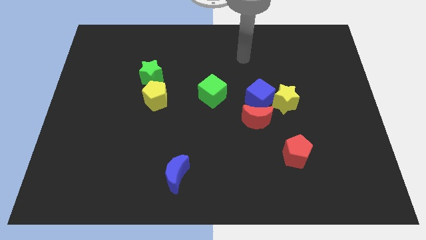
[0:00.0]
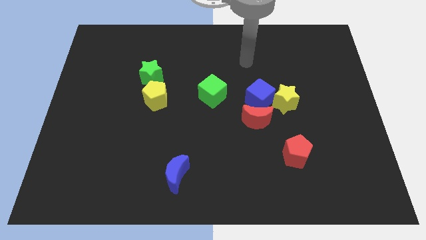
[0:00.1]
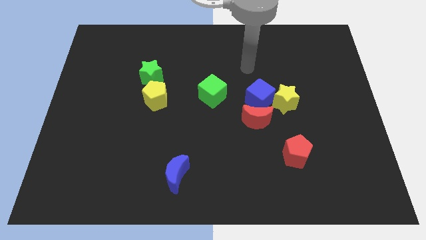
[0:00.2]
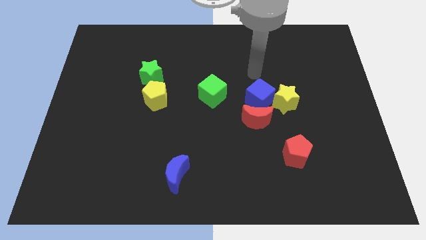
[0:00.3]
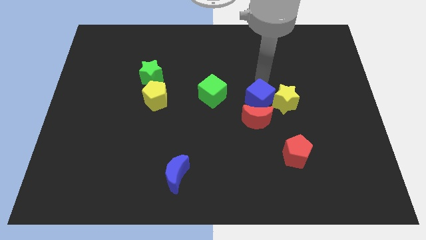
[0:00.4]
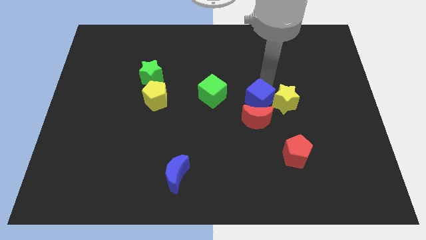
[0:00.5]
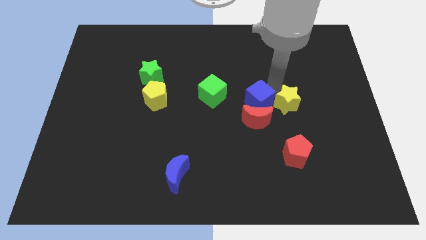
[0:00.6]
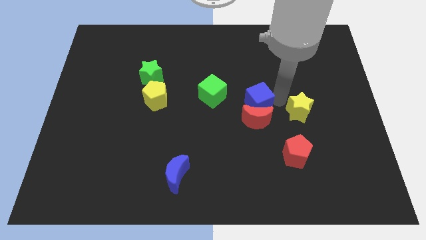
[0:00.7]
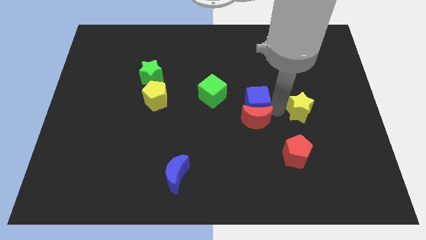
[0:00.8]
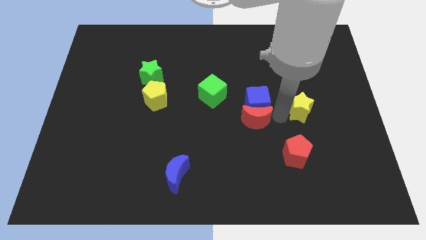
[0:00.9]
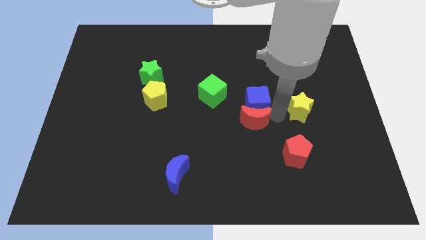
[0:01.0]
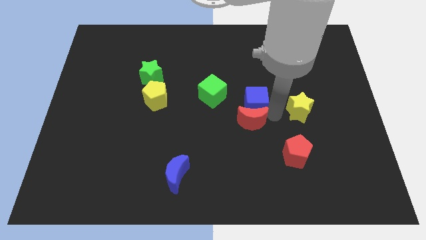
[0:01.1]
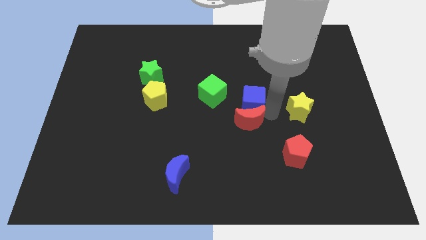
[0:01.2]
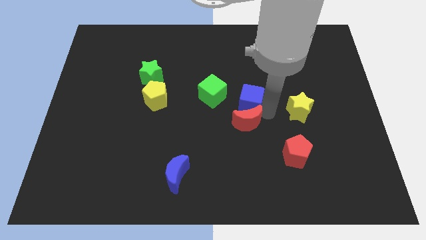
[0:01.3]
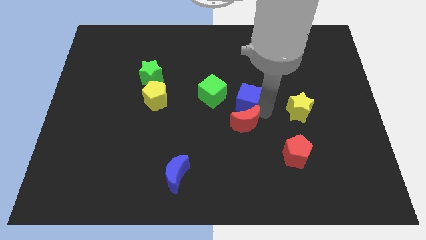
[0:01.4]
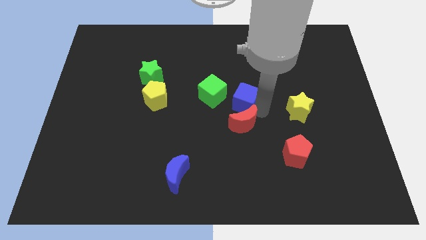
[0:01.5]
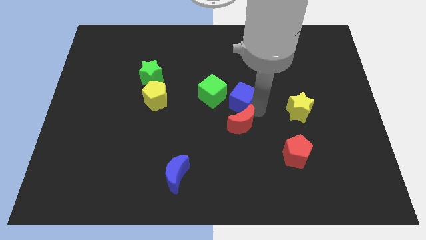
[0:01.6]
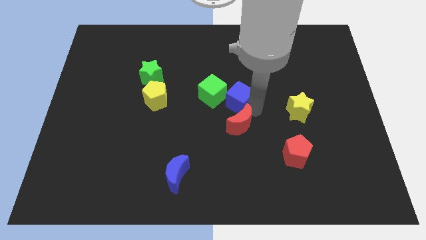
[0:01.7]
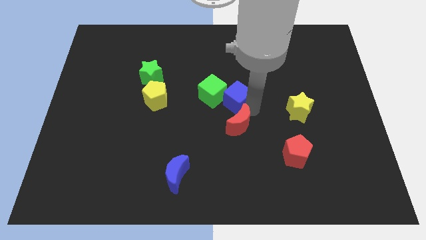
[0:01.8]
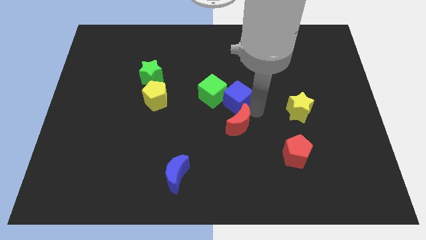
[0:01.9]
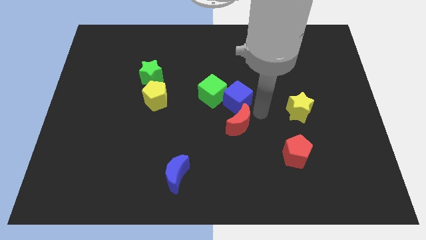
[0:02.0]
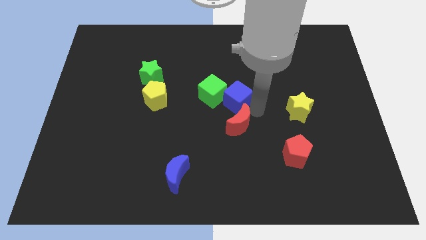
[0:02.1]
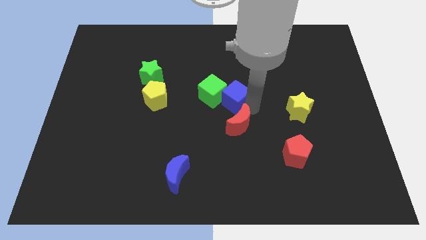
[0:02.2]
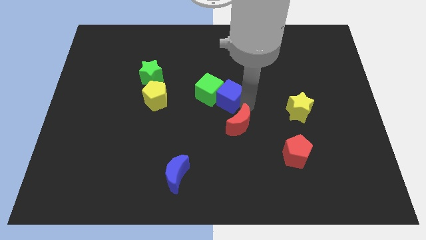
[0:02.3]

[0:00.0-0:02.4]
pull the blue cube apart from the yellow star and red moon

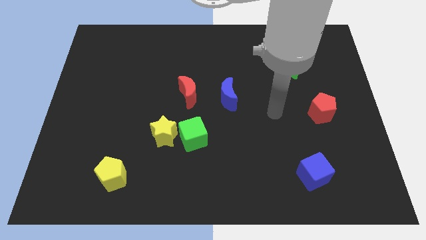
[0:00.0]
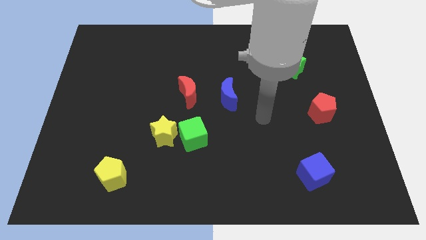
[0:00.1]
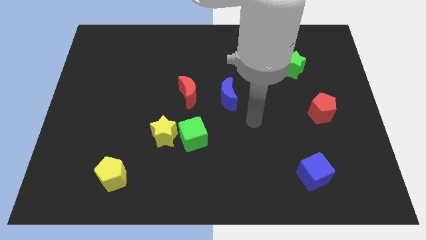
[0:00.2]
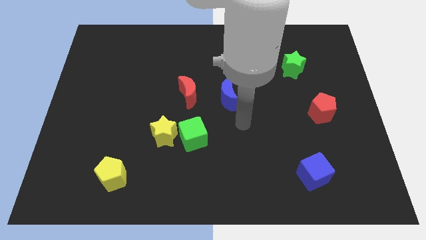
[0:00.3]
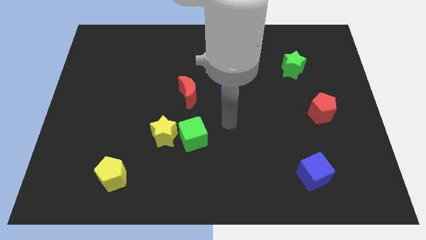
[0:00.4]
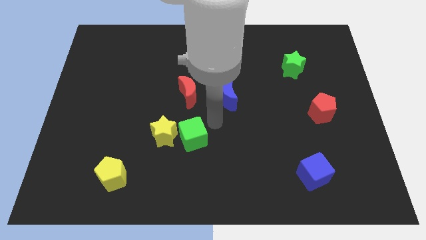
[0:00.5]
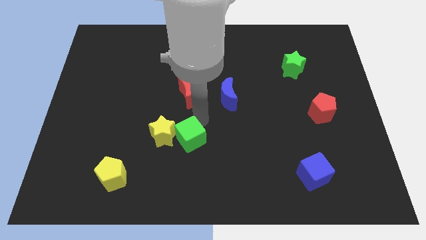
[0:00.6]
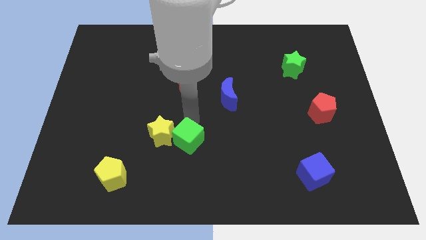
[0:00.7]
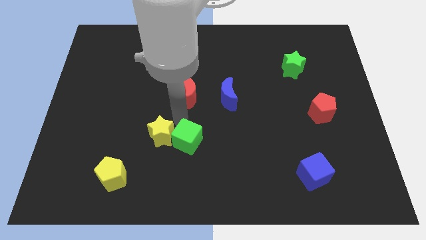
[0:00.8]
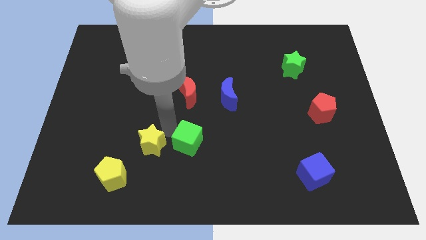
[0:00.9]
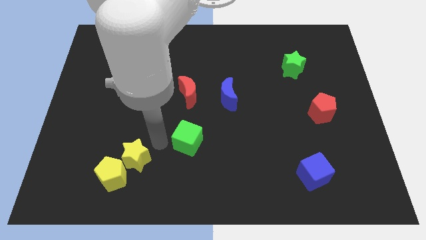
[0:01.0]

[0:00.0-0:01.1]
move the green cube away from the yellow star

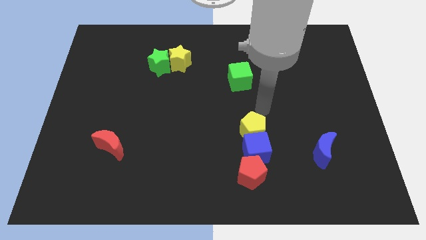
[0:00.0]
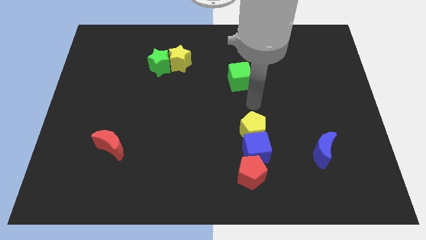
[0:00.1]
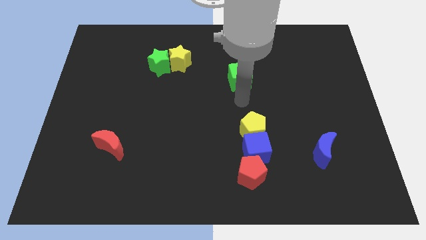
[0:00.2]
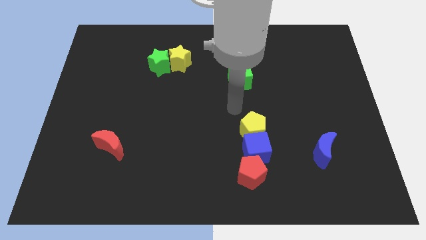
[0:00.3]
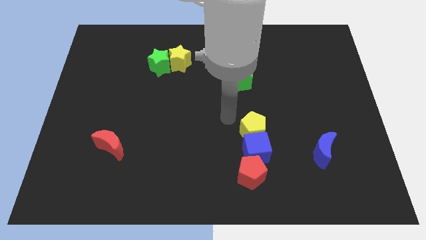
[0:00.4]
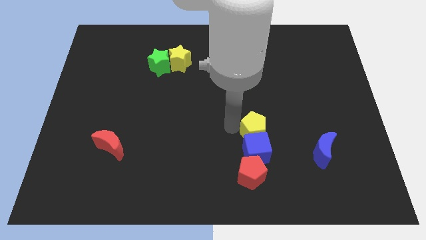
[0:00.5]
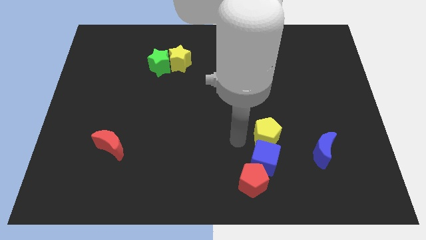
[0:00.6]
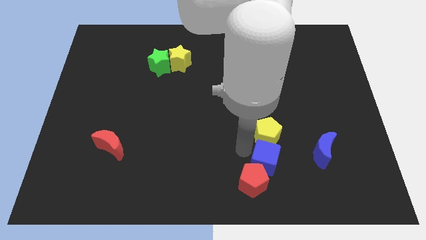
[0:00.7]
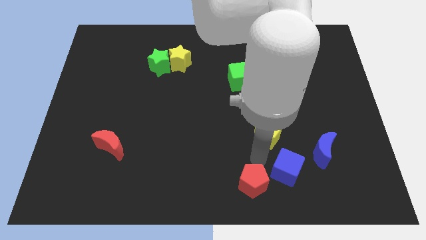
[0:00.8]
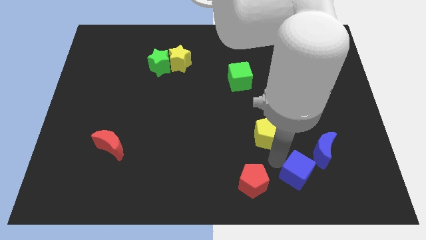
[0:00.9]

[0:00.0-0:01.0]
pull the yellow pentagon apart from the blue cube

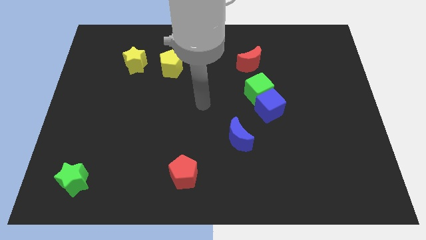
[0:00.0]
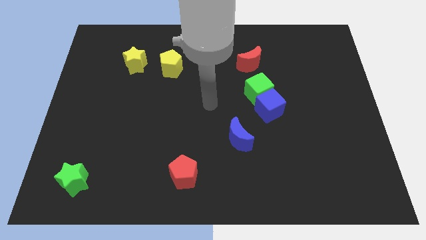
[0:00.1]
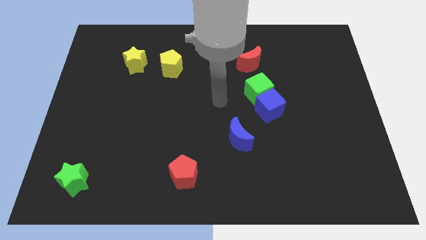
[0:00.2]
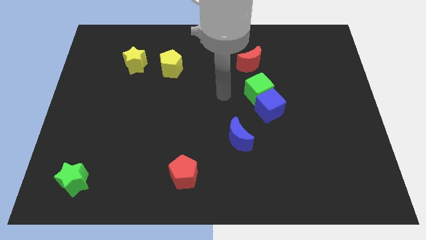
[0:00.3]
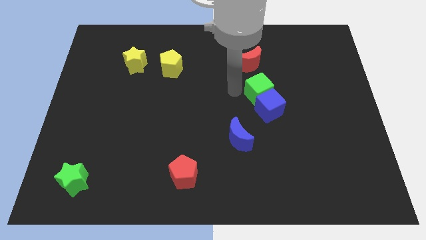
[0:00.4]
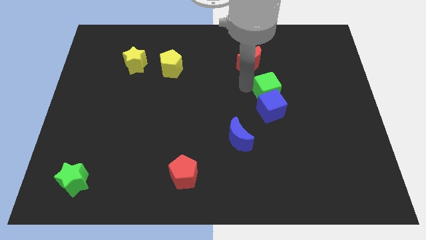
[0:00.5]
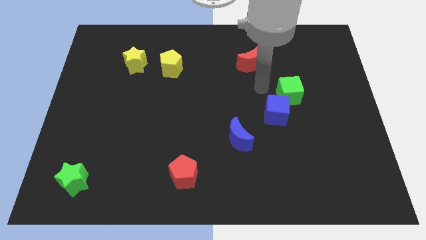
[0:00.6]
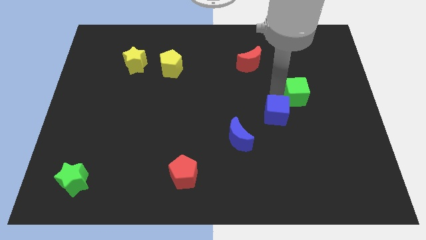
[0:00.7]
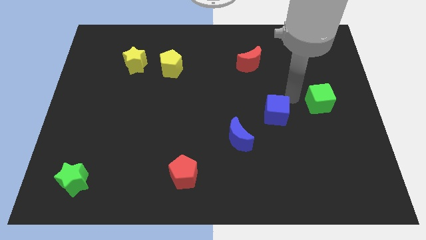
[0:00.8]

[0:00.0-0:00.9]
pull the blue cube apart from the green cube

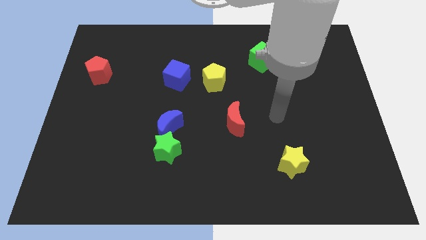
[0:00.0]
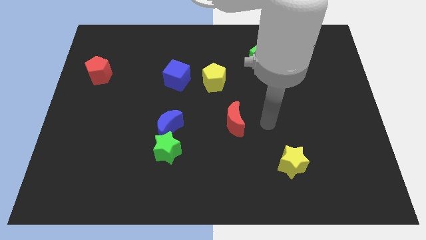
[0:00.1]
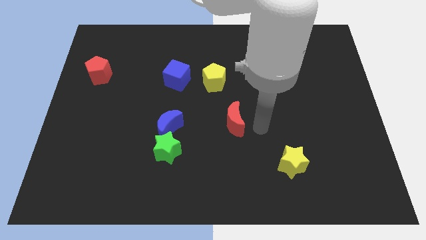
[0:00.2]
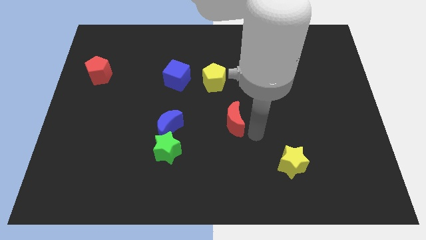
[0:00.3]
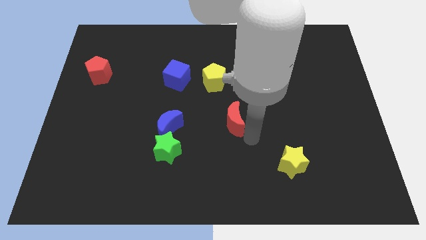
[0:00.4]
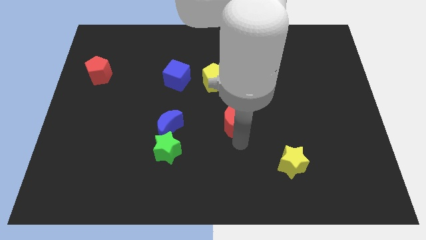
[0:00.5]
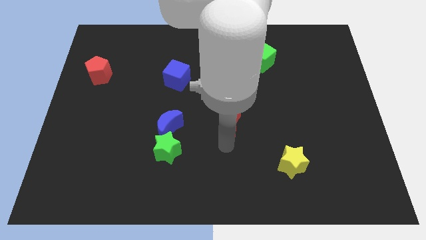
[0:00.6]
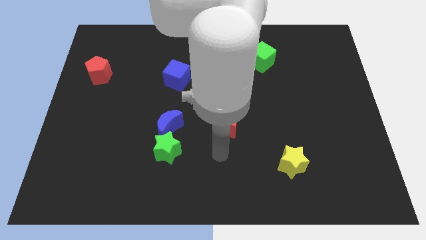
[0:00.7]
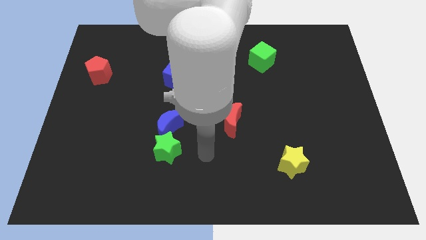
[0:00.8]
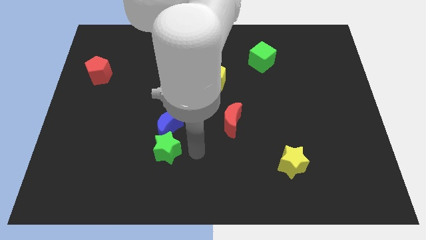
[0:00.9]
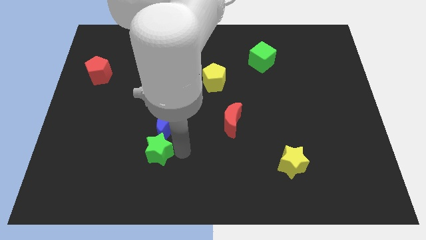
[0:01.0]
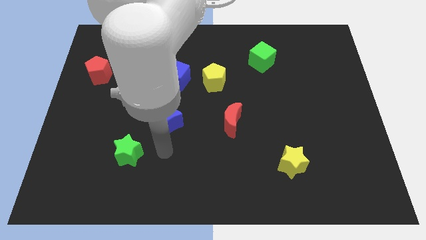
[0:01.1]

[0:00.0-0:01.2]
separate the blue moon from the green star

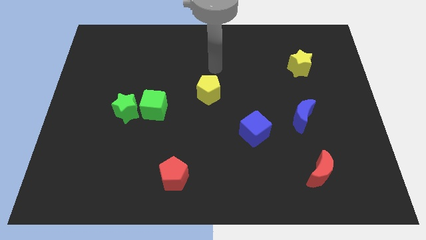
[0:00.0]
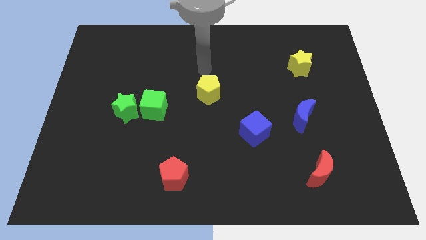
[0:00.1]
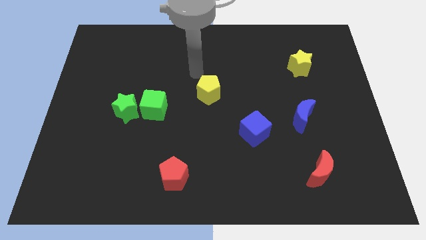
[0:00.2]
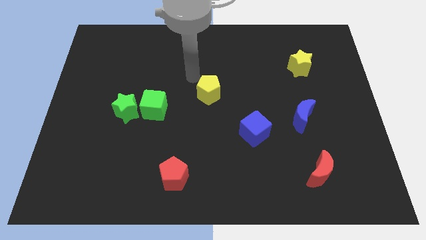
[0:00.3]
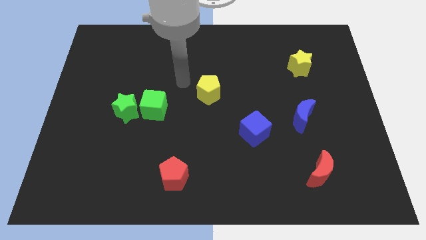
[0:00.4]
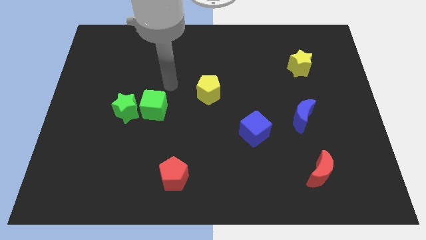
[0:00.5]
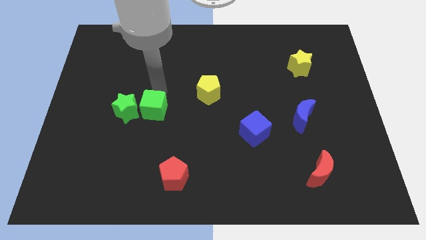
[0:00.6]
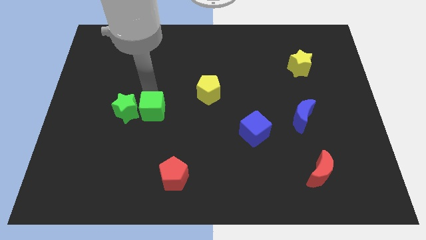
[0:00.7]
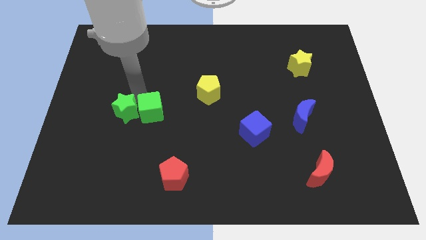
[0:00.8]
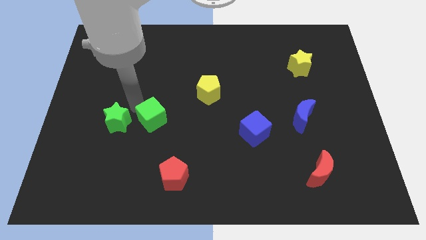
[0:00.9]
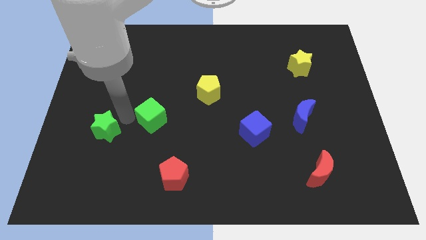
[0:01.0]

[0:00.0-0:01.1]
move the green cube away from the green star

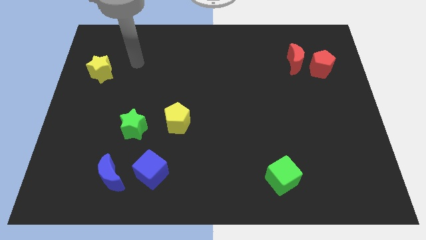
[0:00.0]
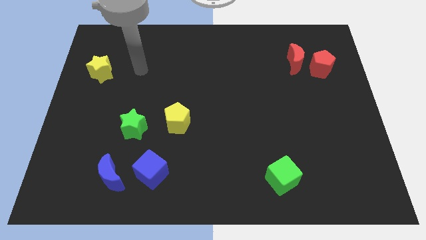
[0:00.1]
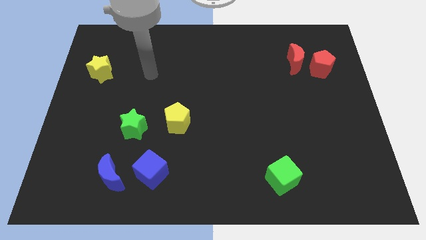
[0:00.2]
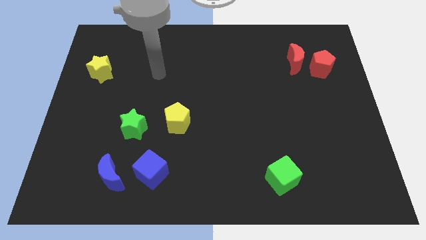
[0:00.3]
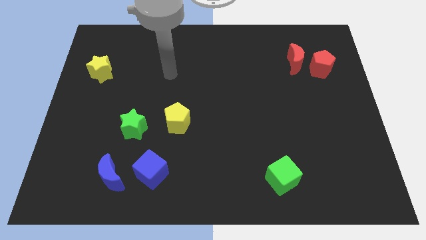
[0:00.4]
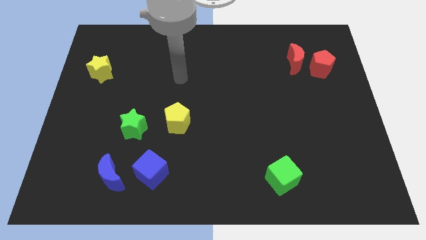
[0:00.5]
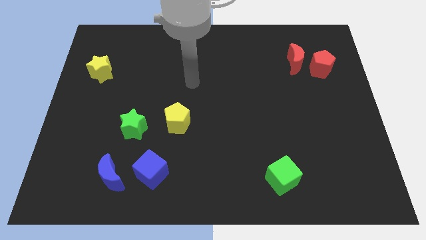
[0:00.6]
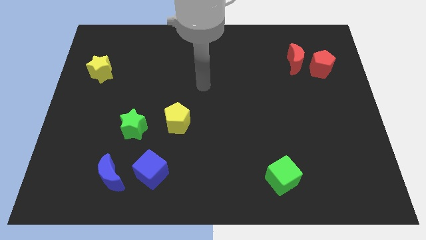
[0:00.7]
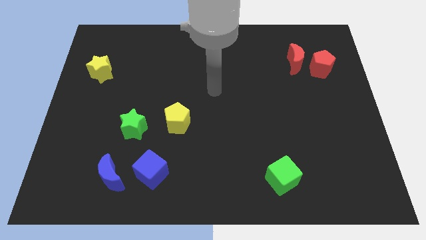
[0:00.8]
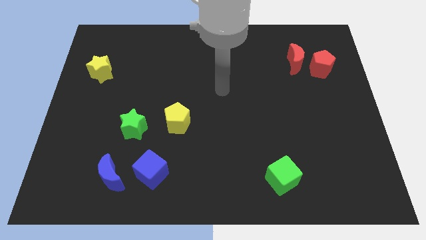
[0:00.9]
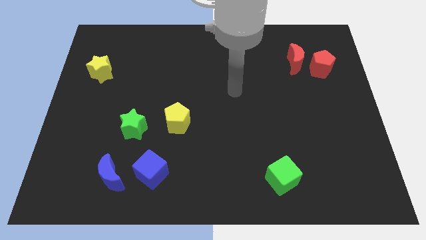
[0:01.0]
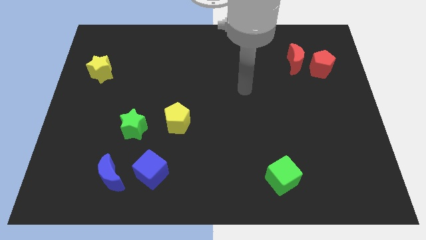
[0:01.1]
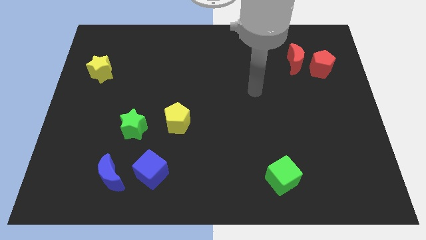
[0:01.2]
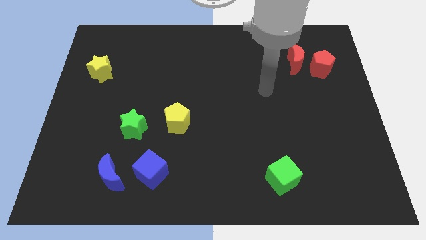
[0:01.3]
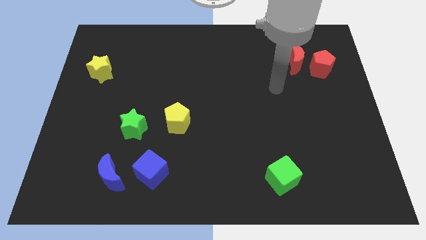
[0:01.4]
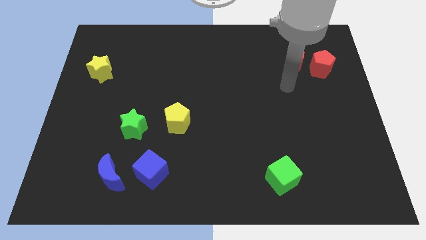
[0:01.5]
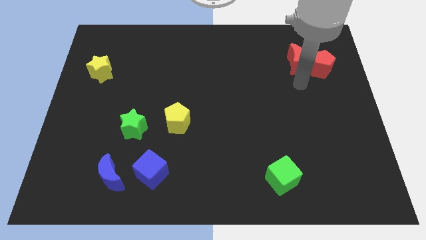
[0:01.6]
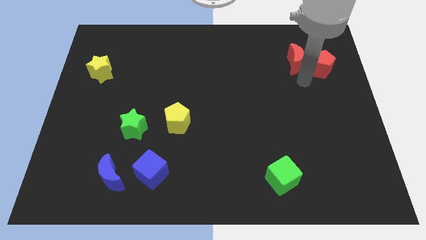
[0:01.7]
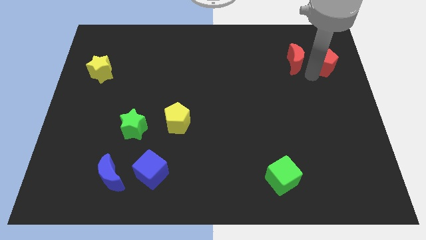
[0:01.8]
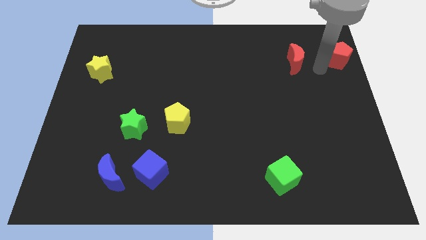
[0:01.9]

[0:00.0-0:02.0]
separate the red moon from the red pentagon
